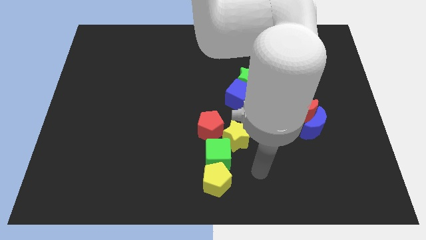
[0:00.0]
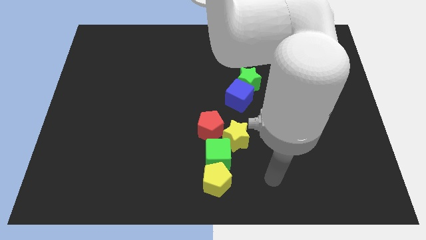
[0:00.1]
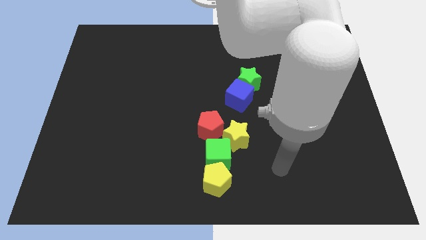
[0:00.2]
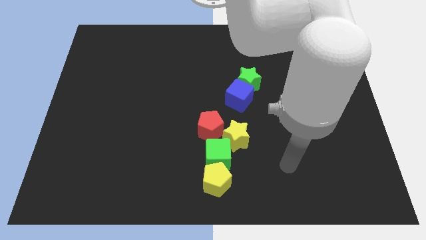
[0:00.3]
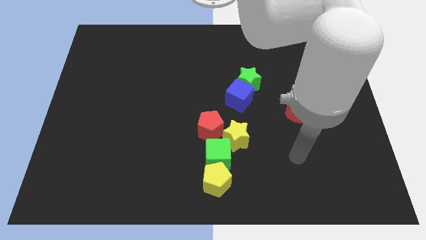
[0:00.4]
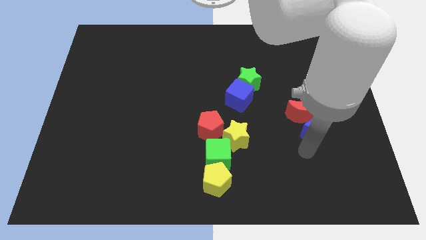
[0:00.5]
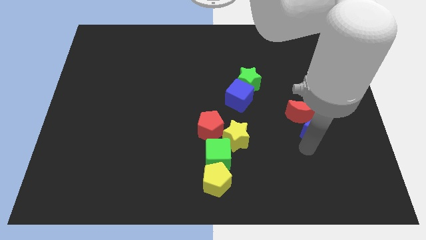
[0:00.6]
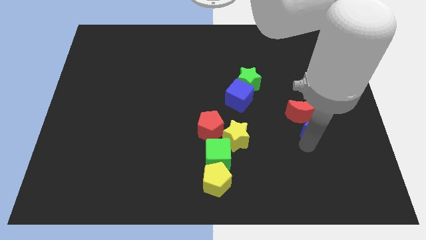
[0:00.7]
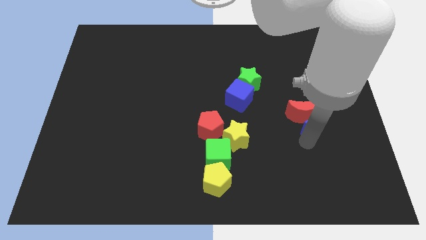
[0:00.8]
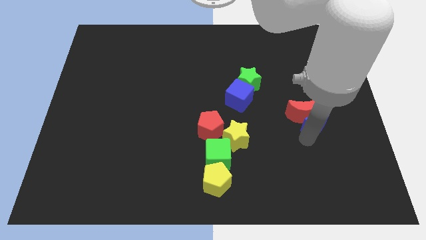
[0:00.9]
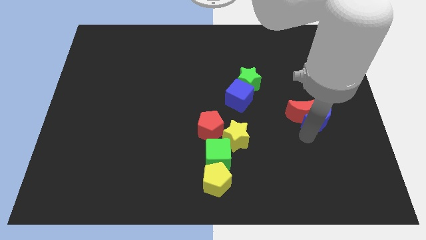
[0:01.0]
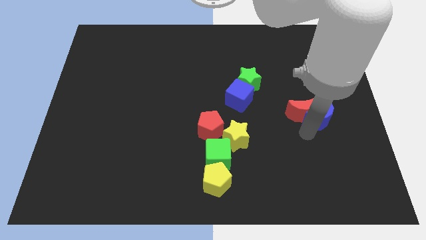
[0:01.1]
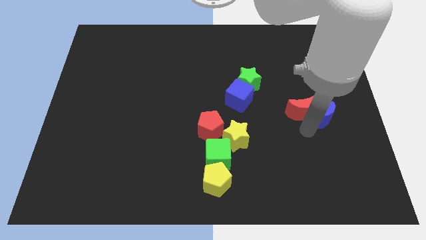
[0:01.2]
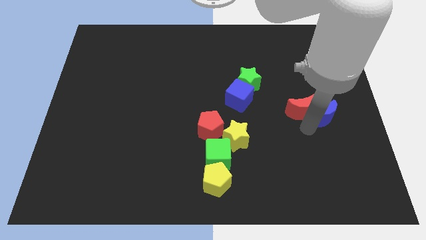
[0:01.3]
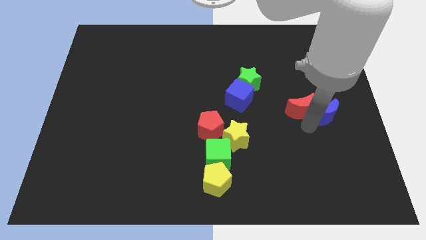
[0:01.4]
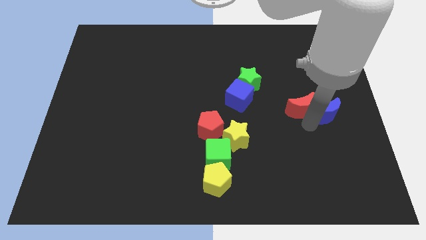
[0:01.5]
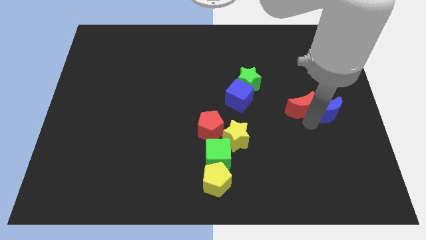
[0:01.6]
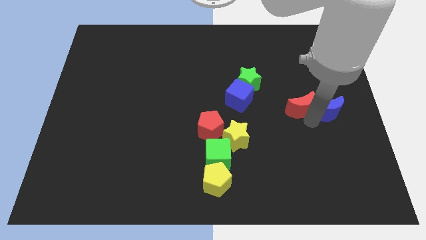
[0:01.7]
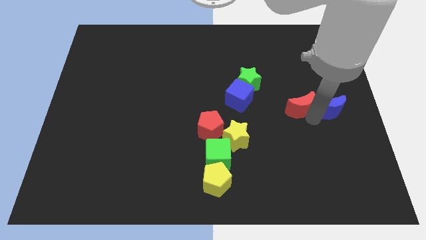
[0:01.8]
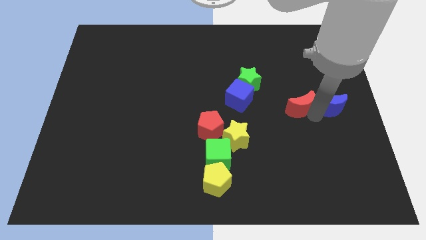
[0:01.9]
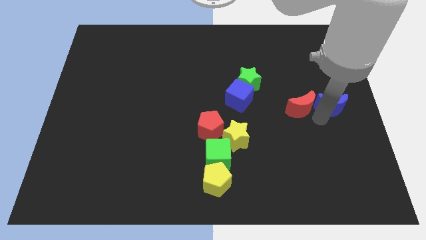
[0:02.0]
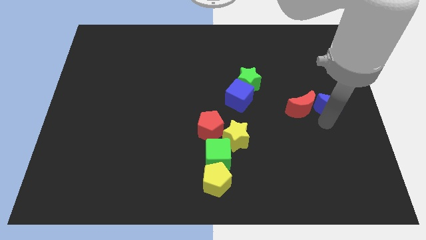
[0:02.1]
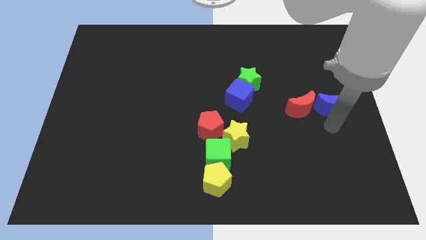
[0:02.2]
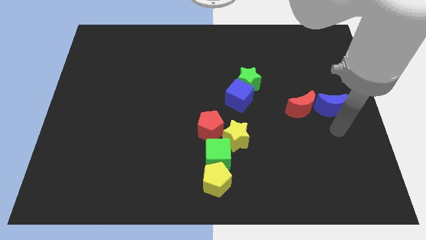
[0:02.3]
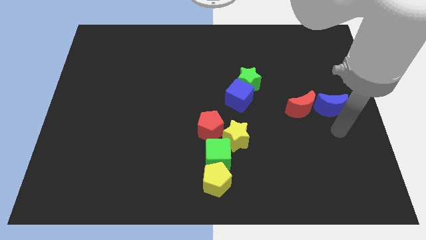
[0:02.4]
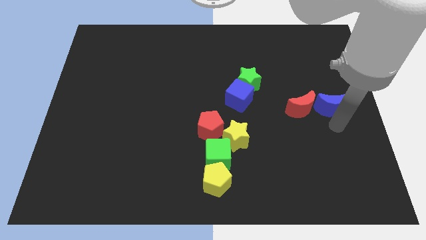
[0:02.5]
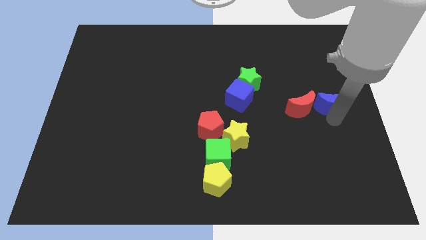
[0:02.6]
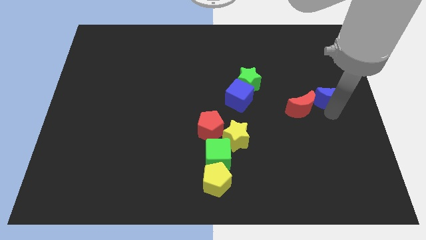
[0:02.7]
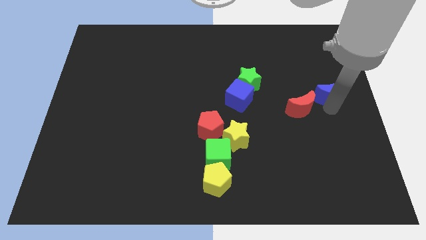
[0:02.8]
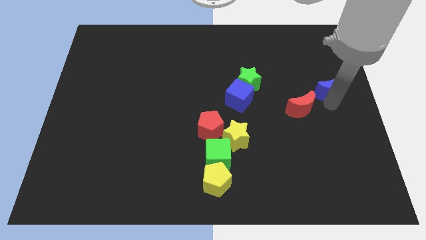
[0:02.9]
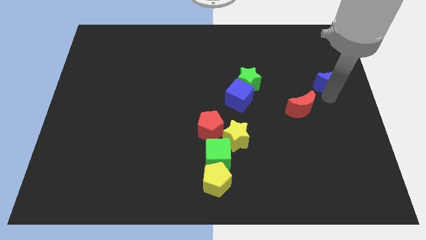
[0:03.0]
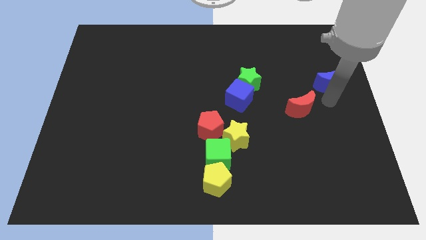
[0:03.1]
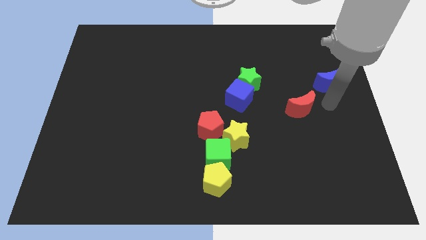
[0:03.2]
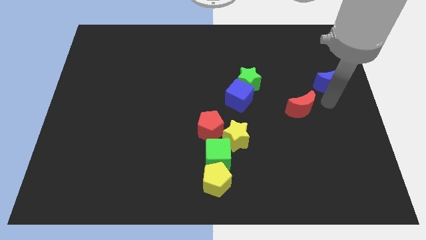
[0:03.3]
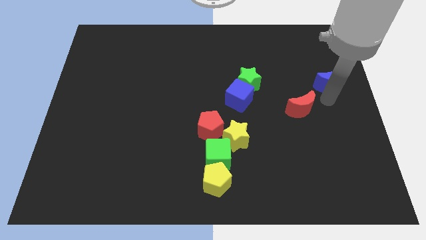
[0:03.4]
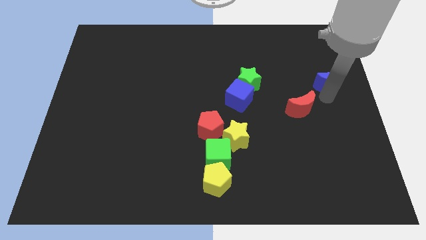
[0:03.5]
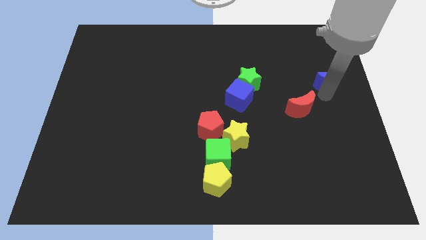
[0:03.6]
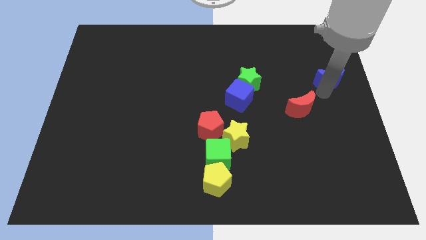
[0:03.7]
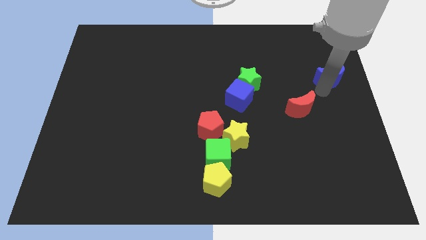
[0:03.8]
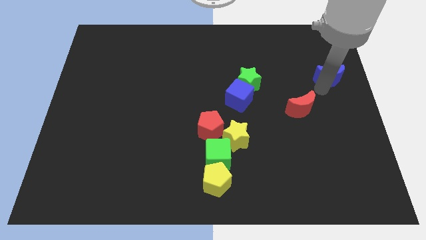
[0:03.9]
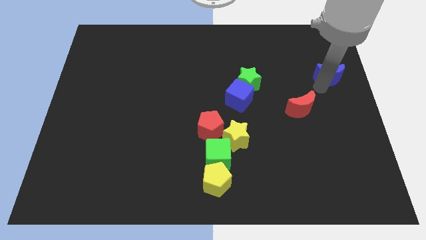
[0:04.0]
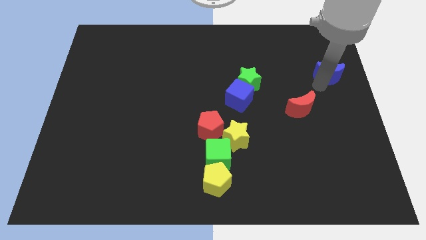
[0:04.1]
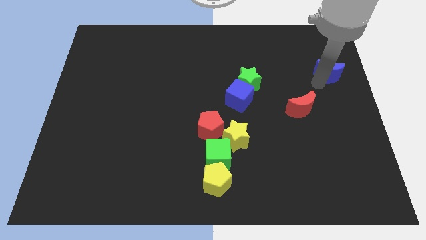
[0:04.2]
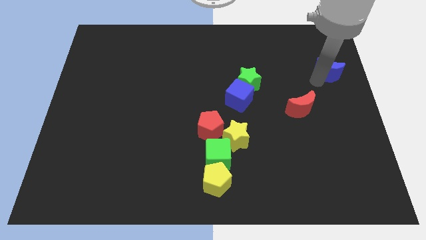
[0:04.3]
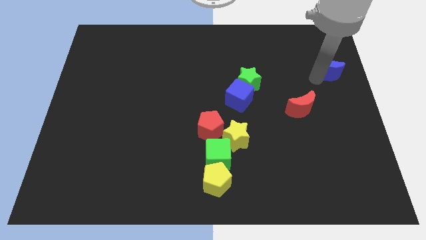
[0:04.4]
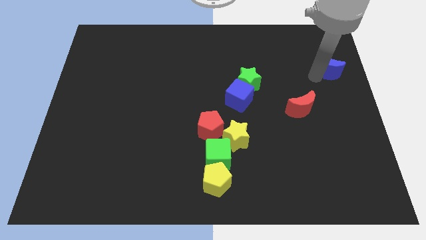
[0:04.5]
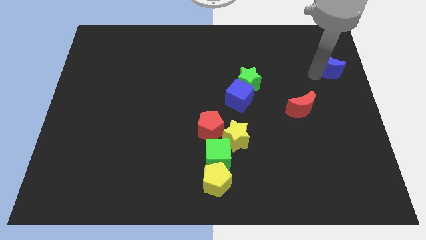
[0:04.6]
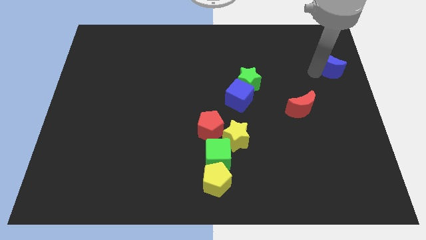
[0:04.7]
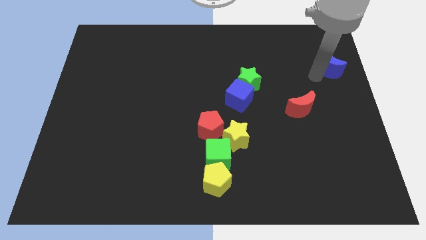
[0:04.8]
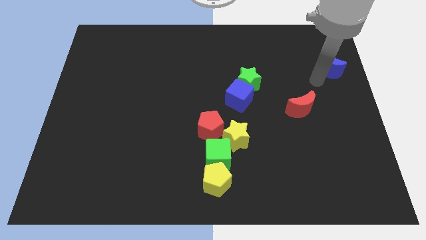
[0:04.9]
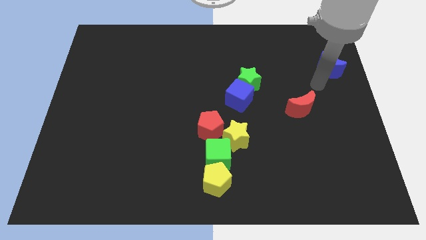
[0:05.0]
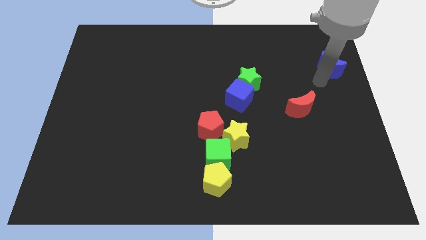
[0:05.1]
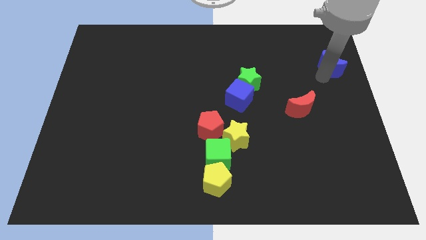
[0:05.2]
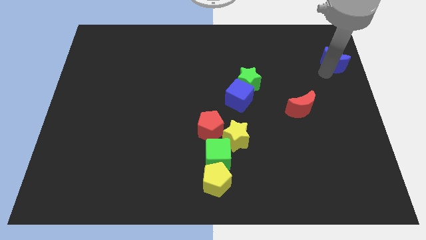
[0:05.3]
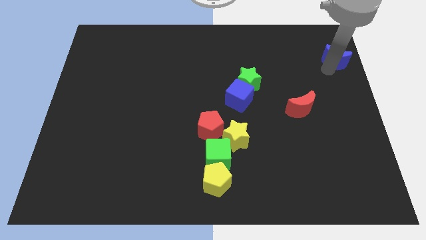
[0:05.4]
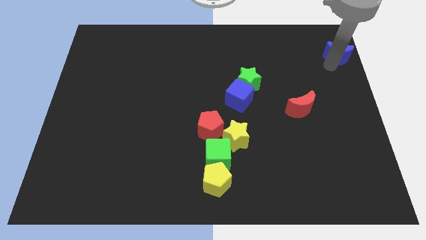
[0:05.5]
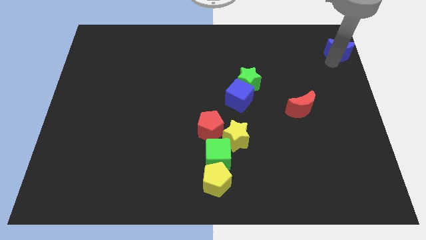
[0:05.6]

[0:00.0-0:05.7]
put the blue moon to the top right
